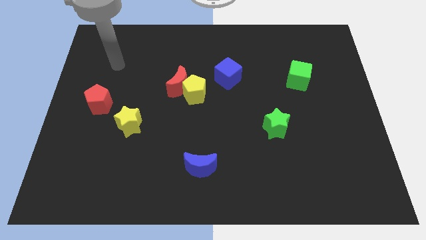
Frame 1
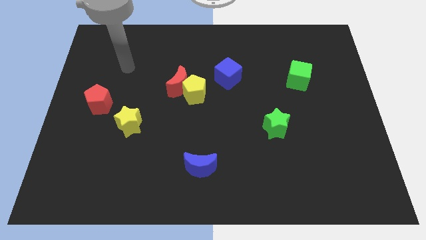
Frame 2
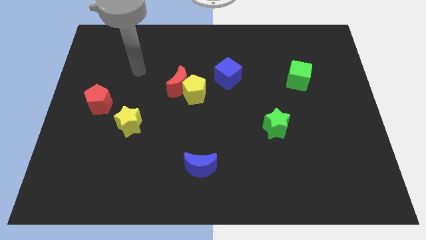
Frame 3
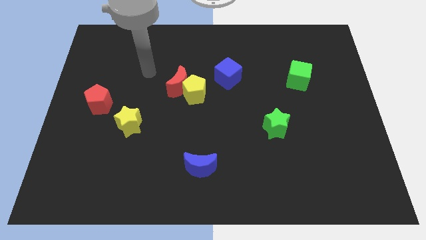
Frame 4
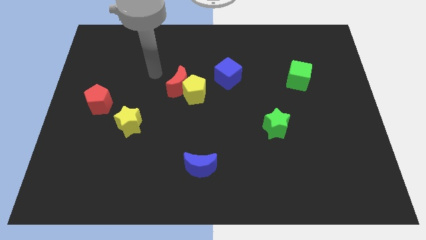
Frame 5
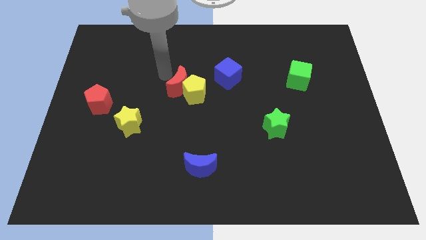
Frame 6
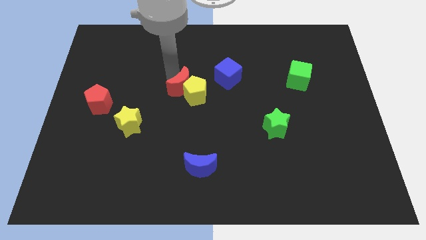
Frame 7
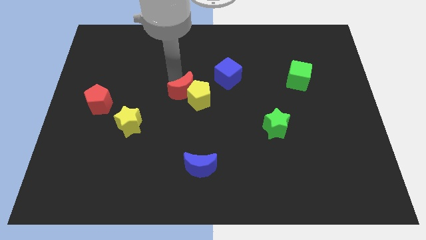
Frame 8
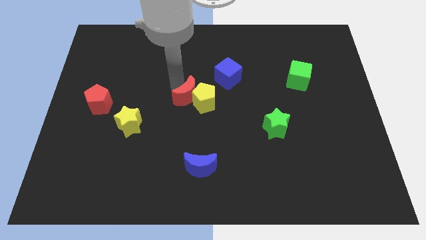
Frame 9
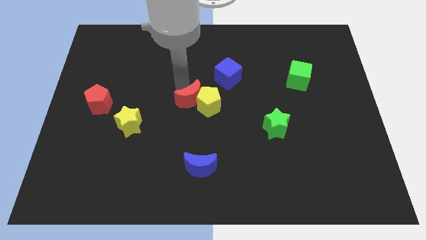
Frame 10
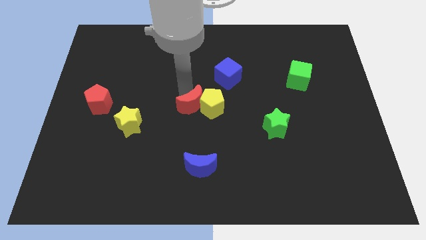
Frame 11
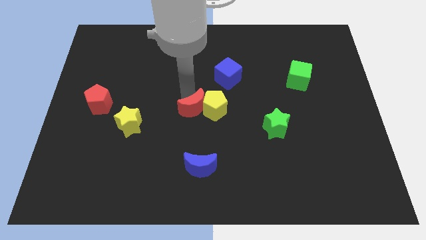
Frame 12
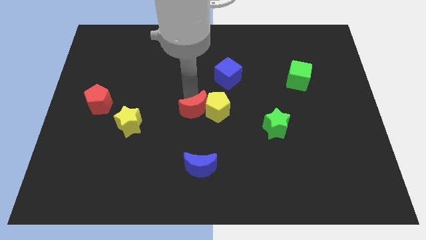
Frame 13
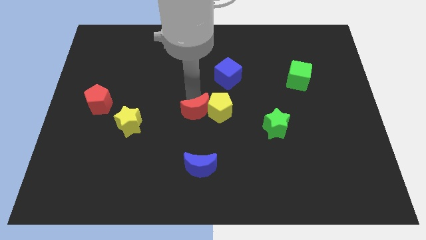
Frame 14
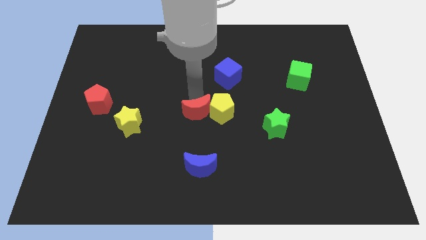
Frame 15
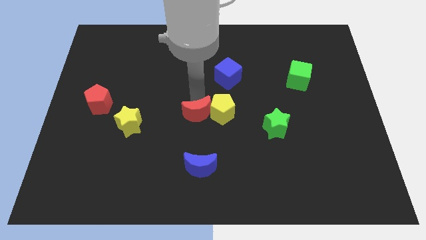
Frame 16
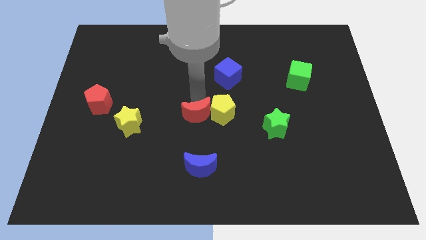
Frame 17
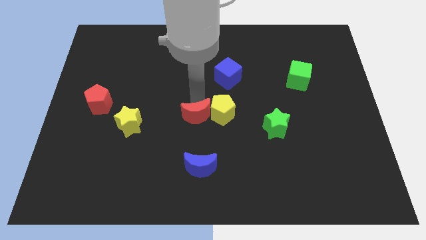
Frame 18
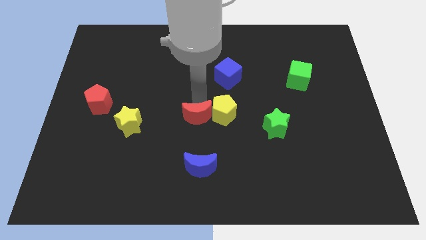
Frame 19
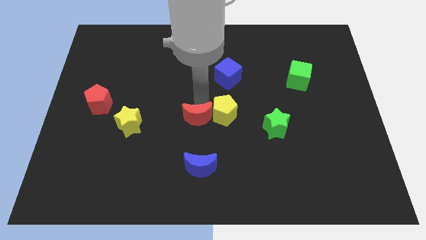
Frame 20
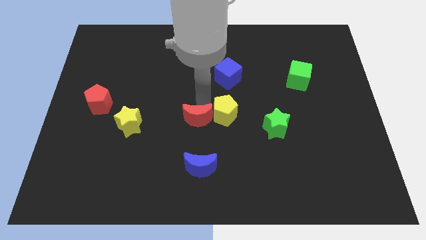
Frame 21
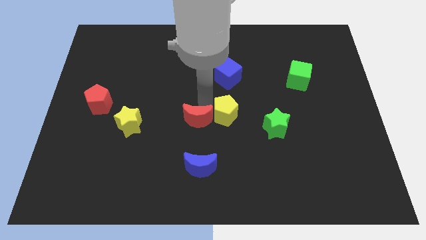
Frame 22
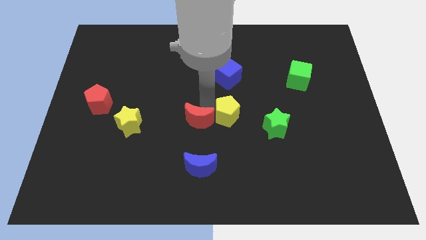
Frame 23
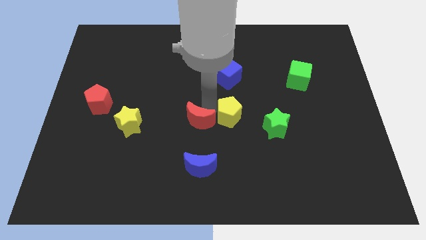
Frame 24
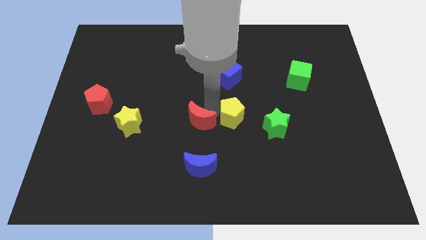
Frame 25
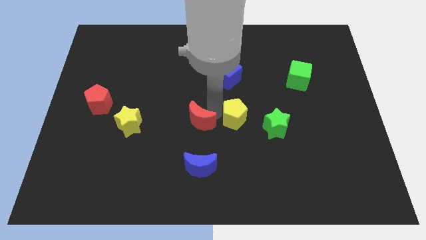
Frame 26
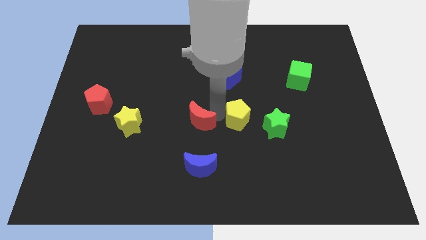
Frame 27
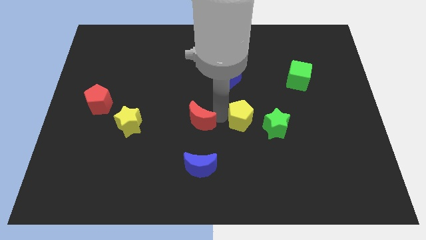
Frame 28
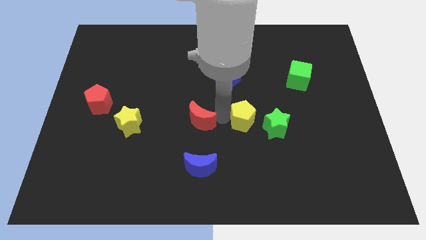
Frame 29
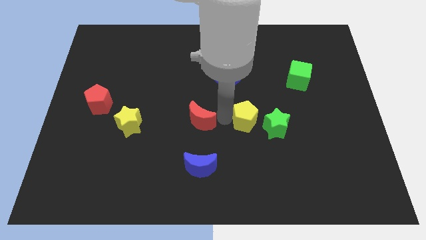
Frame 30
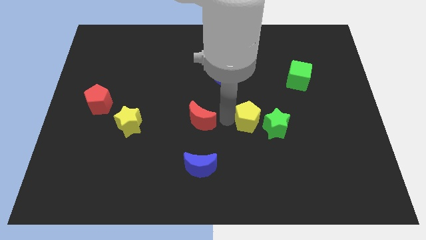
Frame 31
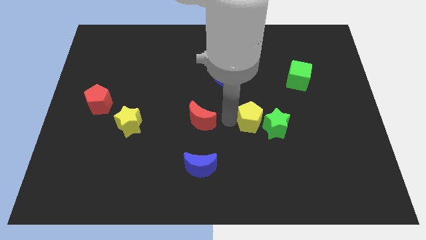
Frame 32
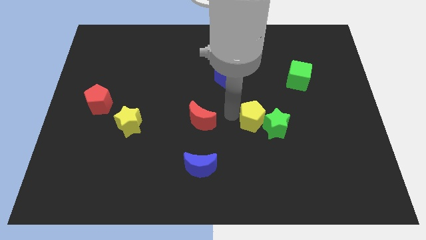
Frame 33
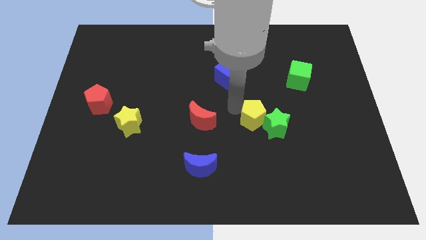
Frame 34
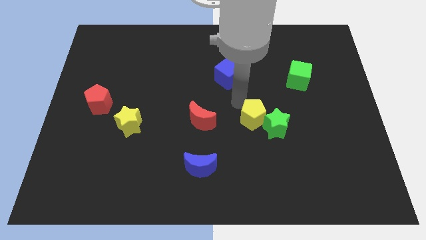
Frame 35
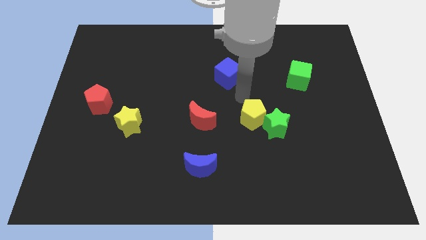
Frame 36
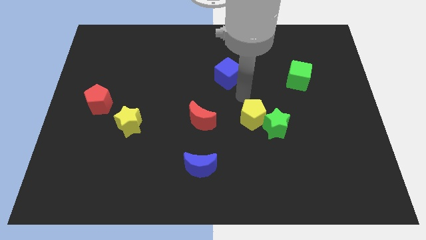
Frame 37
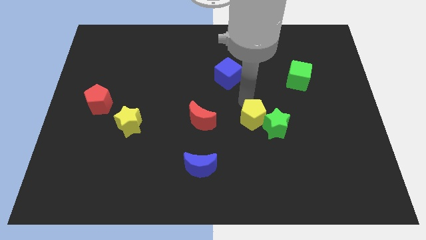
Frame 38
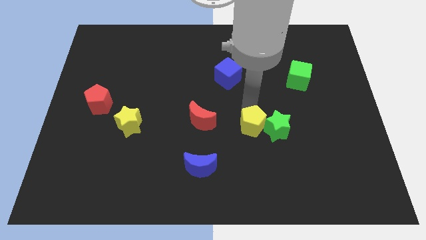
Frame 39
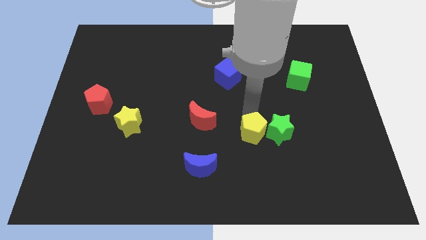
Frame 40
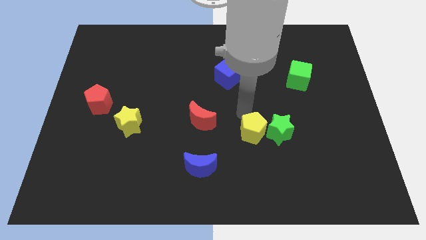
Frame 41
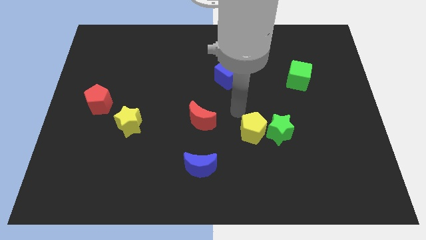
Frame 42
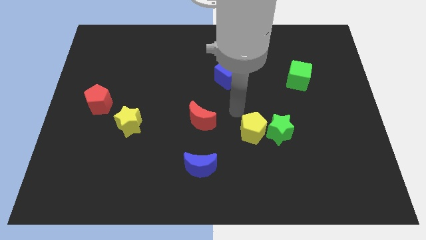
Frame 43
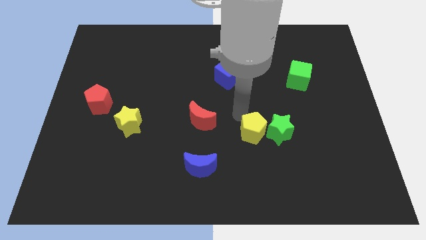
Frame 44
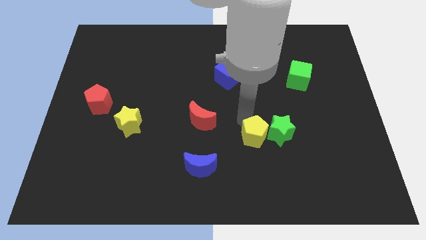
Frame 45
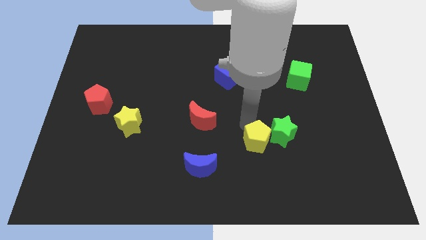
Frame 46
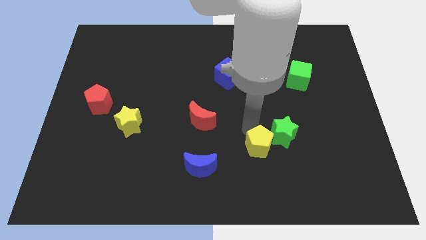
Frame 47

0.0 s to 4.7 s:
move the yellow pentagon downwards and then to the right

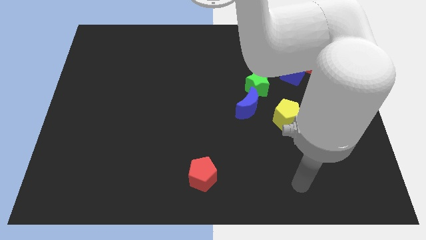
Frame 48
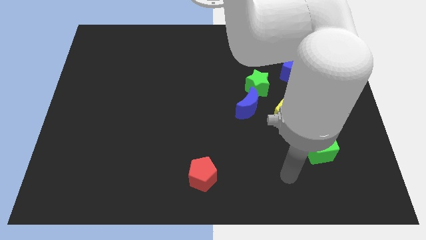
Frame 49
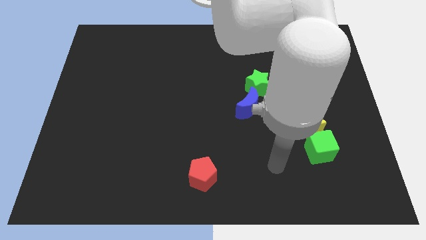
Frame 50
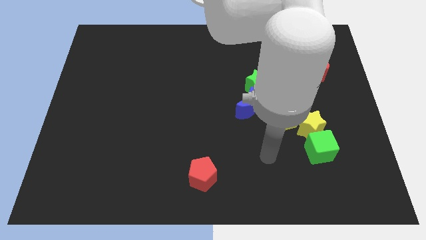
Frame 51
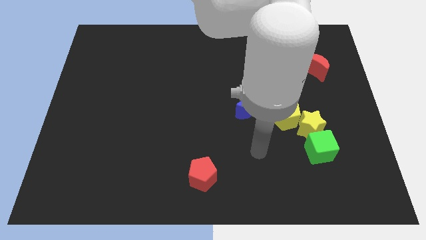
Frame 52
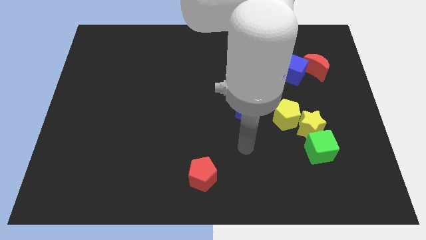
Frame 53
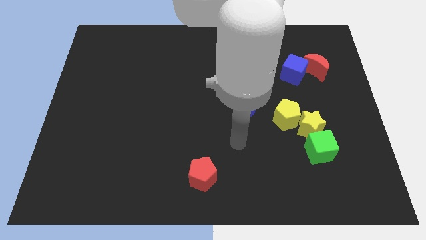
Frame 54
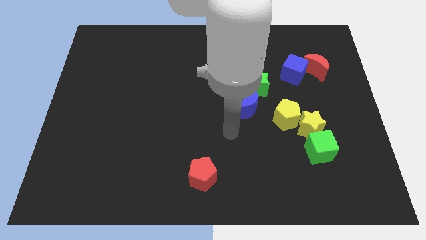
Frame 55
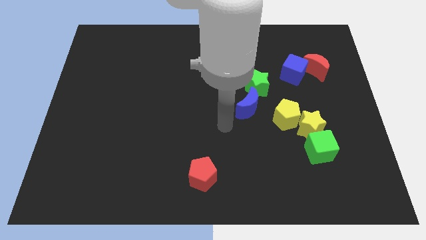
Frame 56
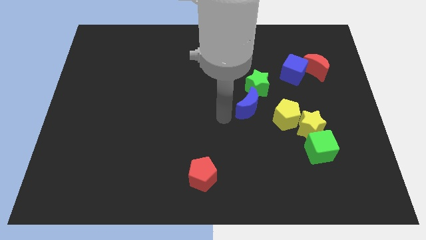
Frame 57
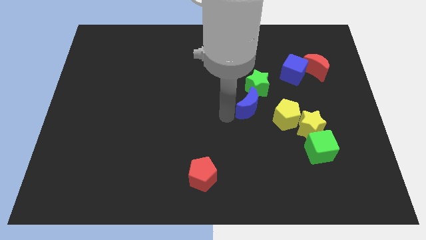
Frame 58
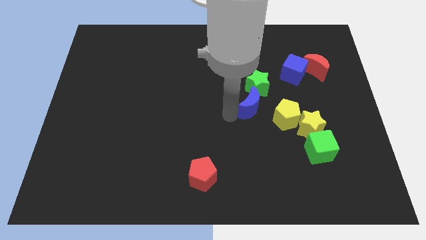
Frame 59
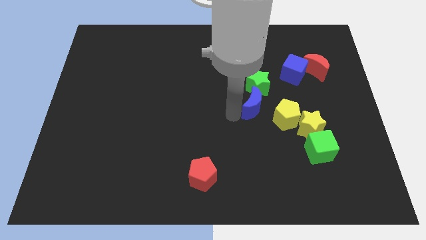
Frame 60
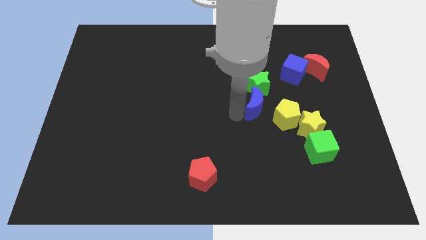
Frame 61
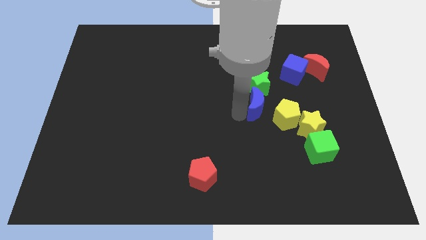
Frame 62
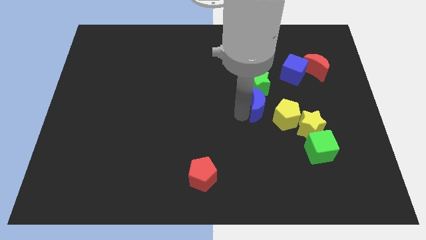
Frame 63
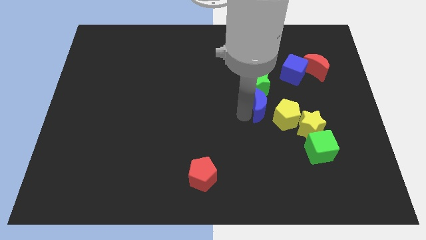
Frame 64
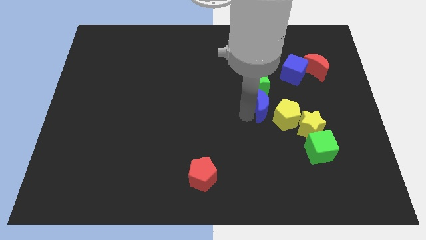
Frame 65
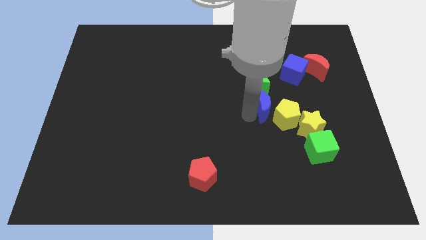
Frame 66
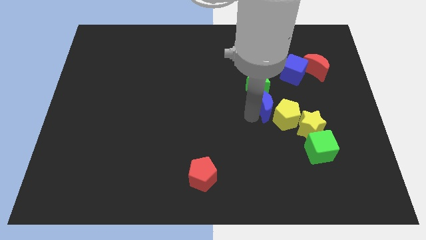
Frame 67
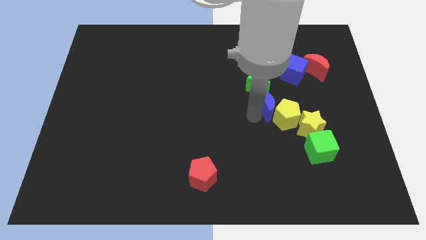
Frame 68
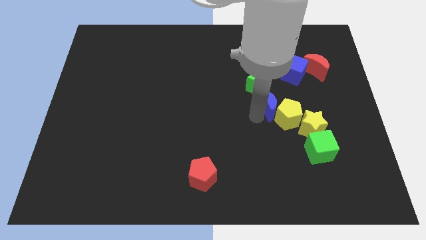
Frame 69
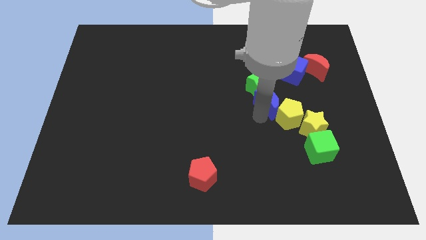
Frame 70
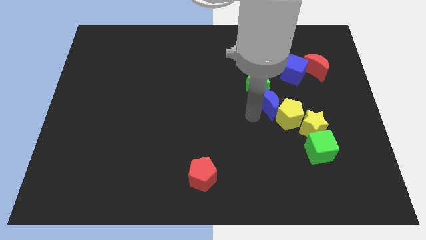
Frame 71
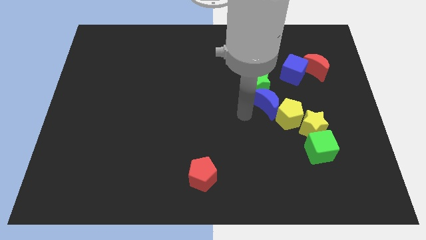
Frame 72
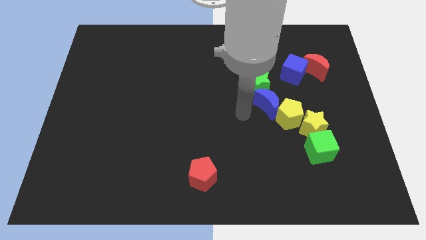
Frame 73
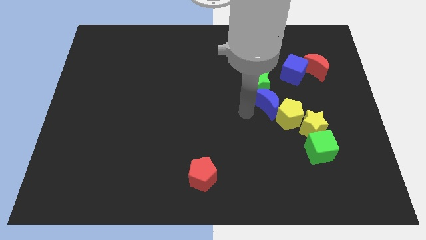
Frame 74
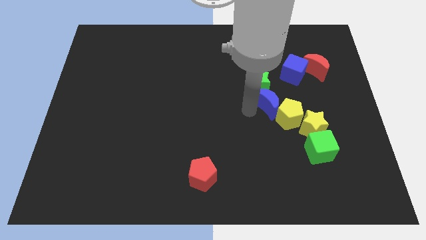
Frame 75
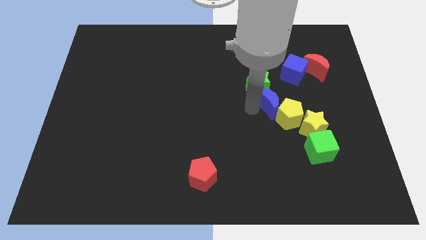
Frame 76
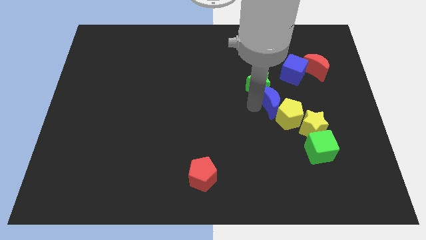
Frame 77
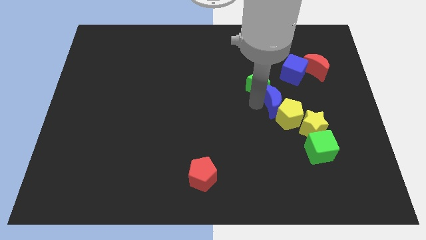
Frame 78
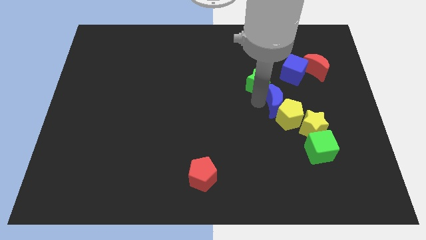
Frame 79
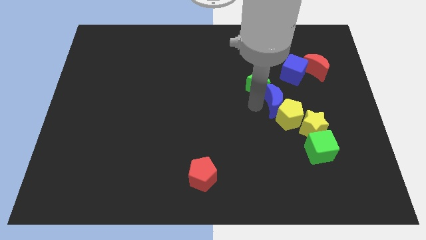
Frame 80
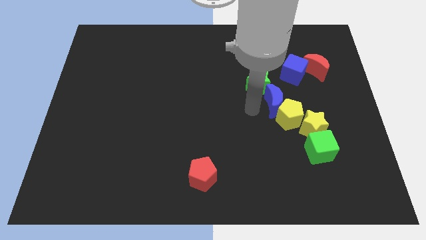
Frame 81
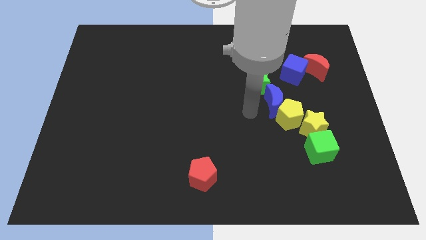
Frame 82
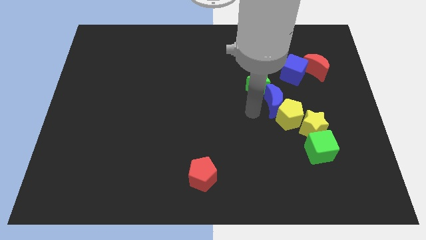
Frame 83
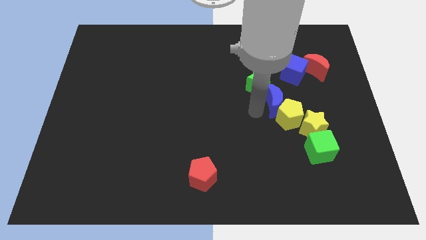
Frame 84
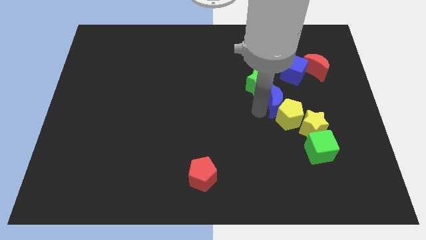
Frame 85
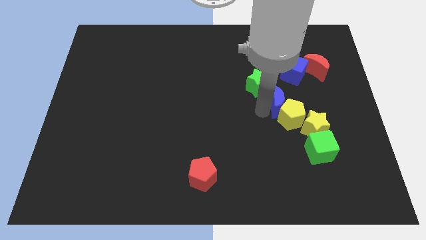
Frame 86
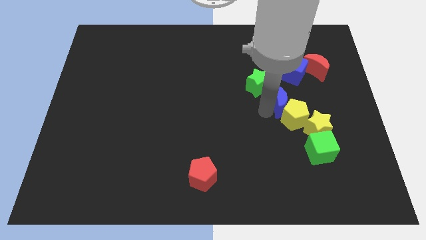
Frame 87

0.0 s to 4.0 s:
slide the blue moon slightly right
